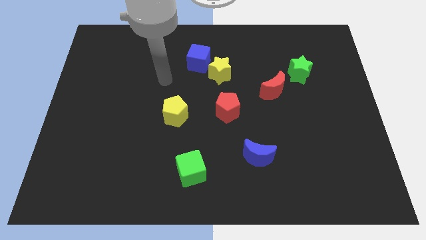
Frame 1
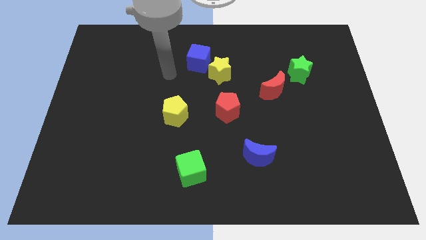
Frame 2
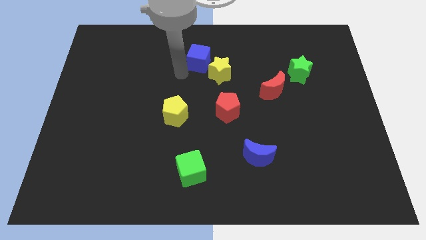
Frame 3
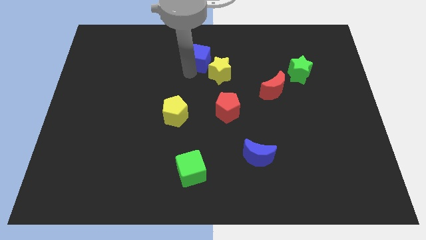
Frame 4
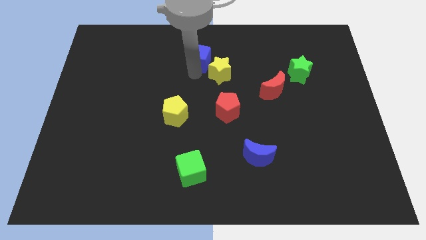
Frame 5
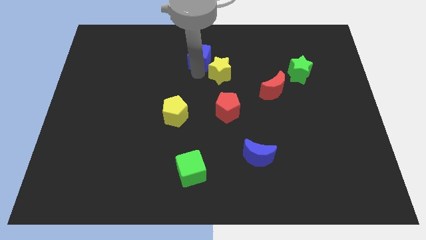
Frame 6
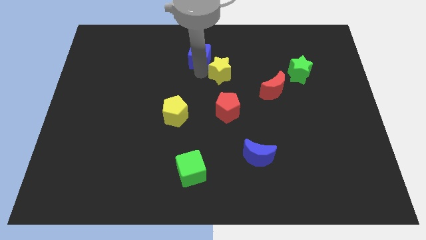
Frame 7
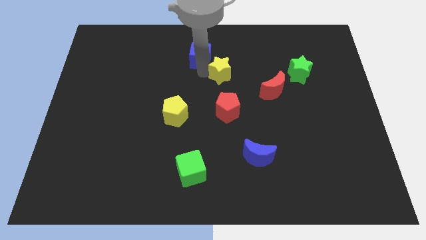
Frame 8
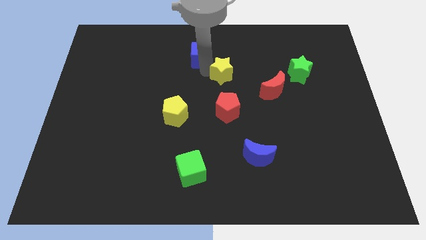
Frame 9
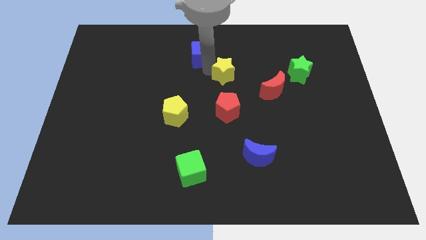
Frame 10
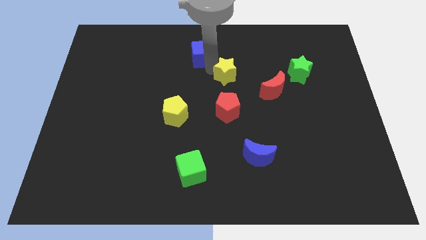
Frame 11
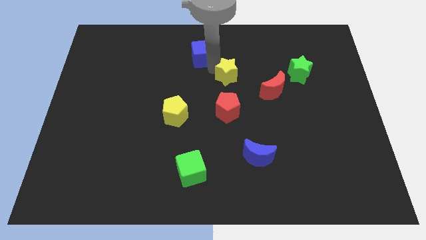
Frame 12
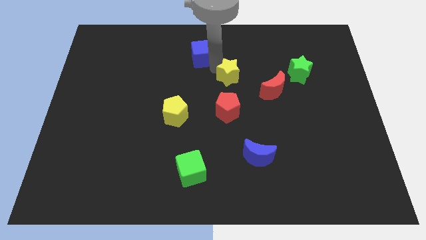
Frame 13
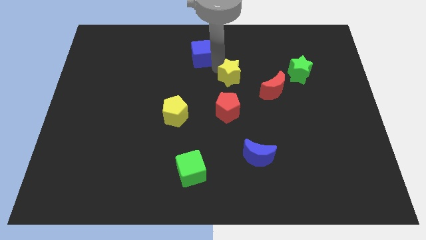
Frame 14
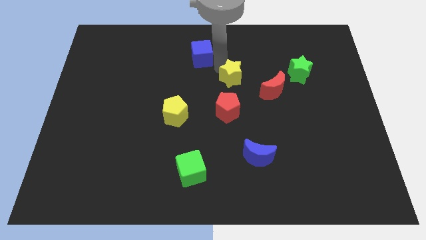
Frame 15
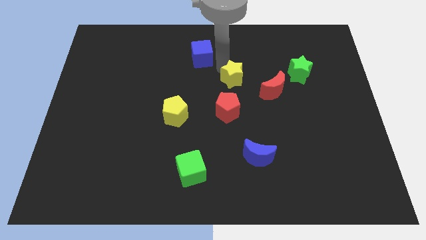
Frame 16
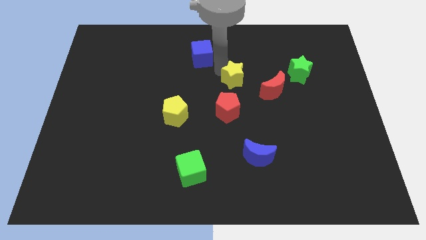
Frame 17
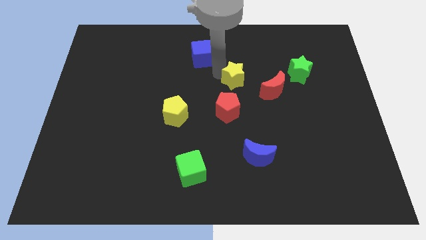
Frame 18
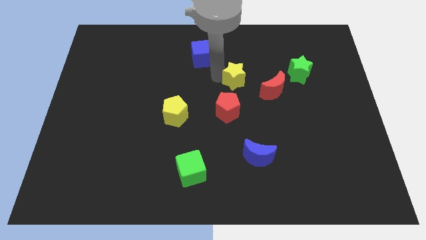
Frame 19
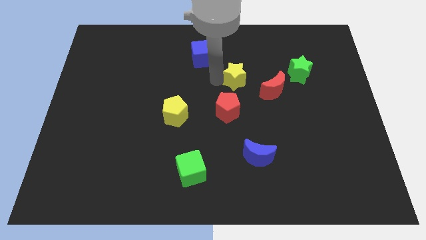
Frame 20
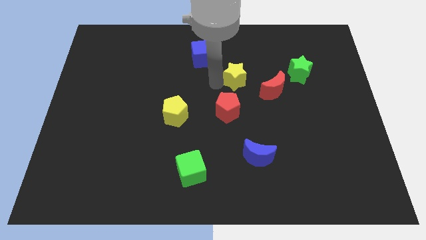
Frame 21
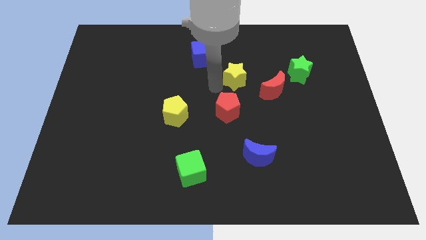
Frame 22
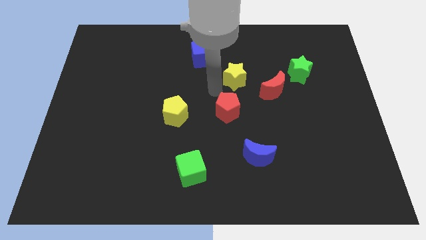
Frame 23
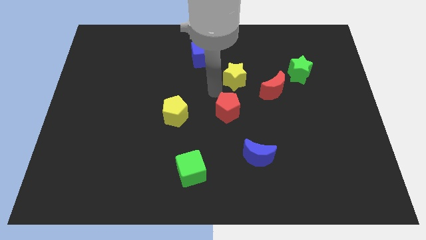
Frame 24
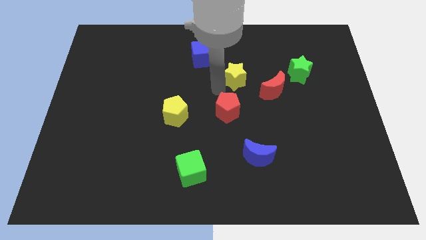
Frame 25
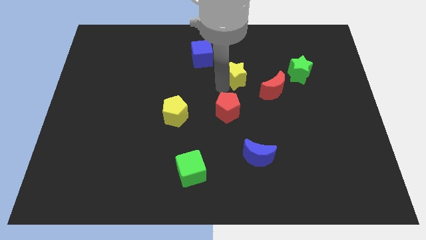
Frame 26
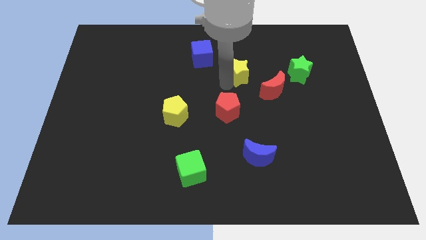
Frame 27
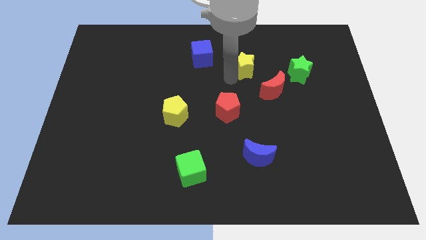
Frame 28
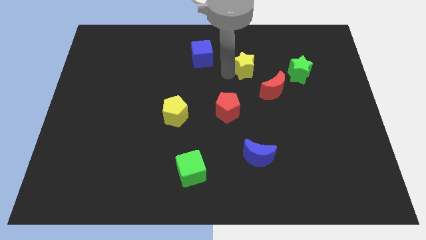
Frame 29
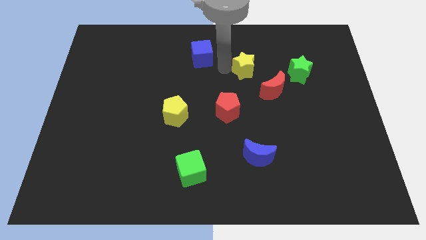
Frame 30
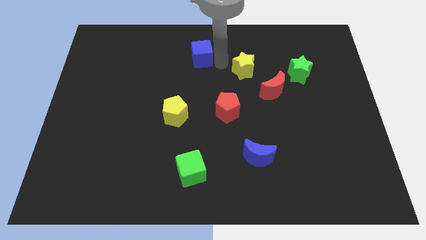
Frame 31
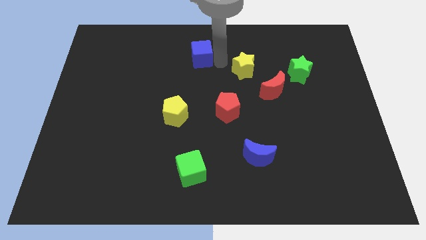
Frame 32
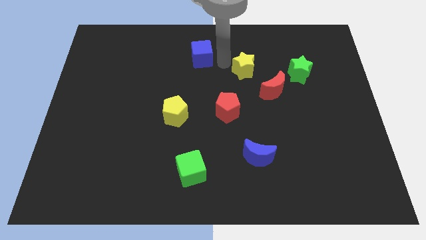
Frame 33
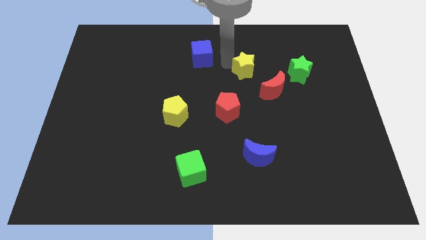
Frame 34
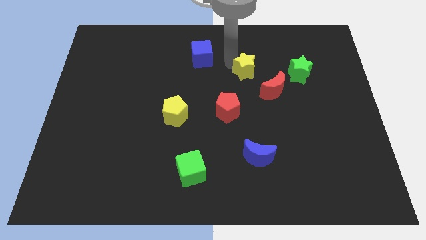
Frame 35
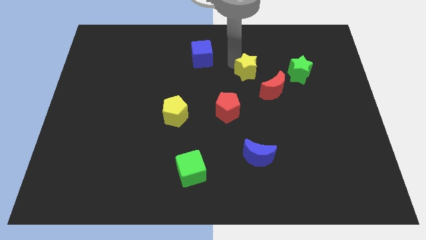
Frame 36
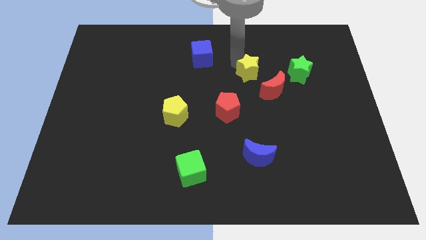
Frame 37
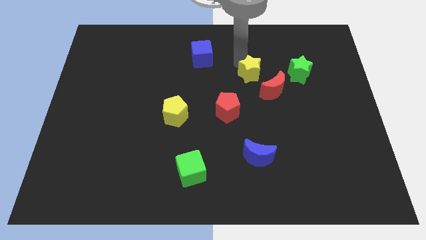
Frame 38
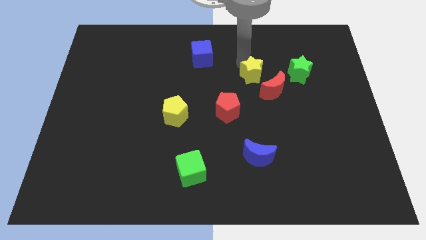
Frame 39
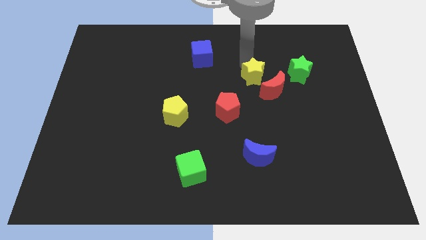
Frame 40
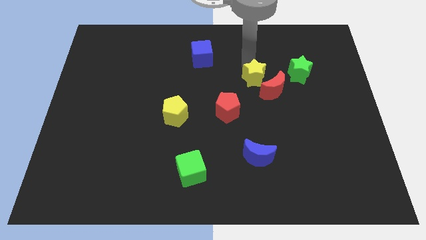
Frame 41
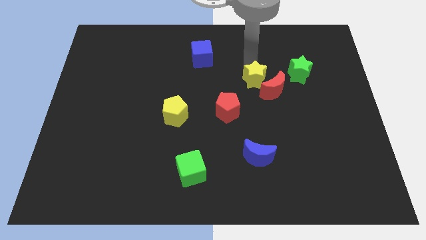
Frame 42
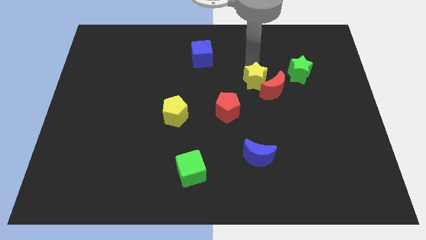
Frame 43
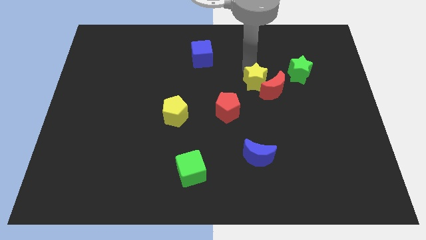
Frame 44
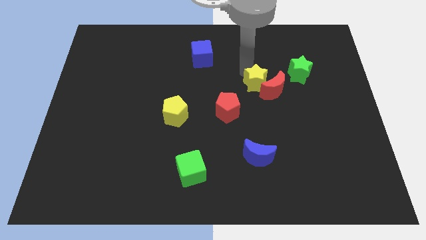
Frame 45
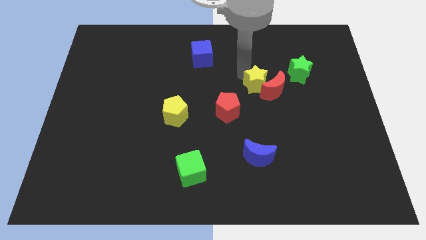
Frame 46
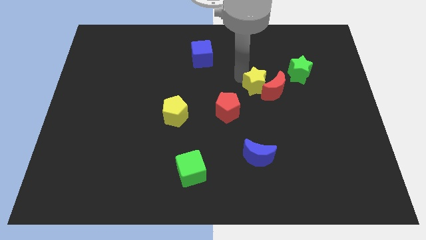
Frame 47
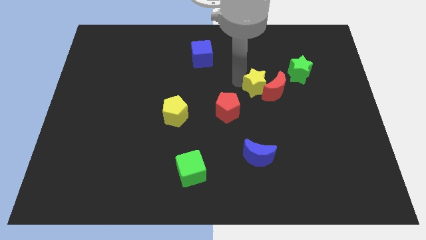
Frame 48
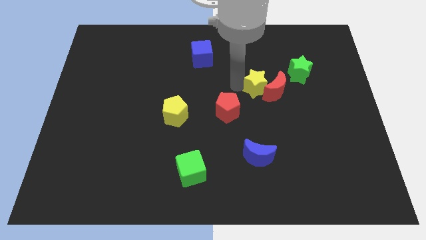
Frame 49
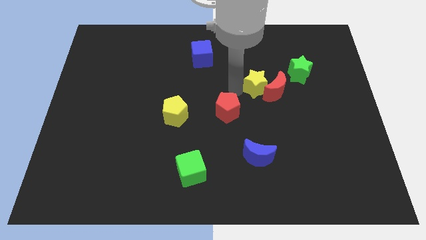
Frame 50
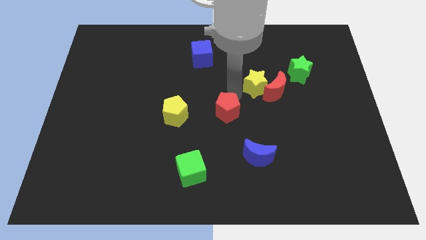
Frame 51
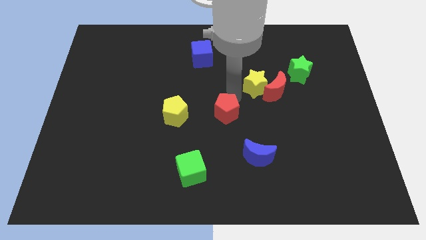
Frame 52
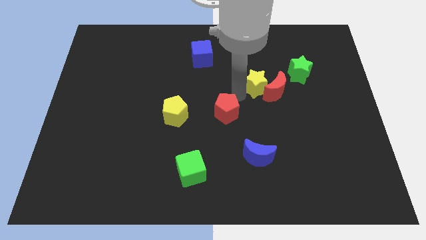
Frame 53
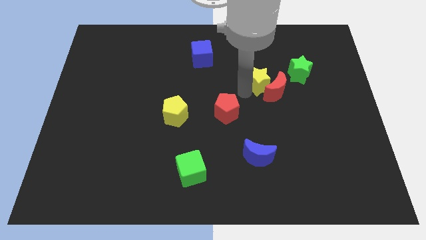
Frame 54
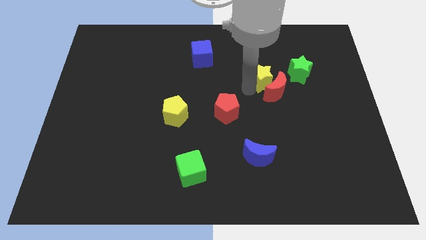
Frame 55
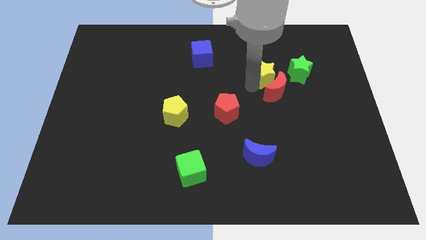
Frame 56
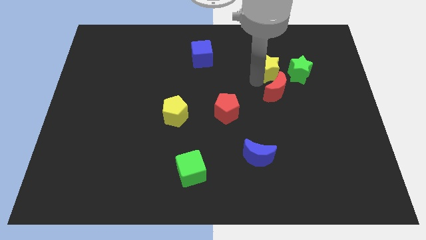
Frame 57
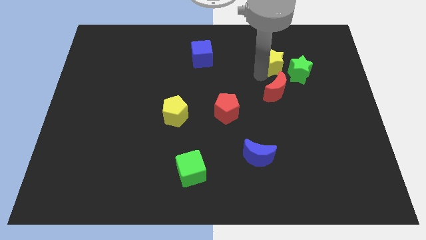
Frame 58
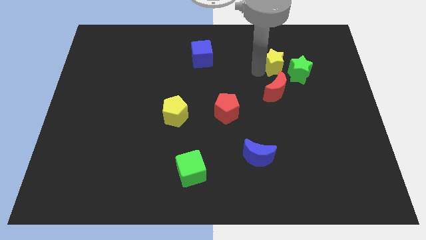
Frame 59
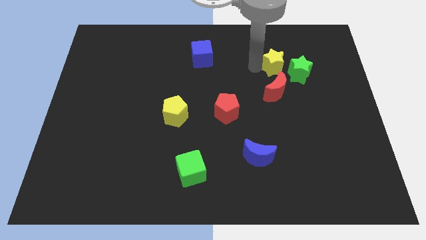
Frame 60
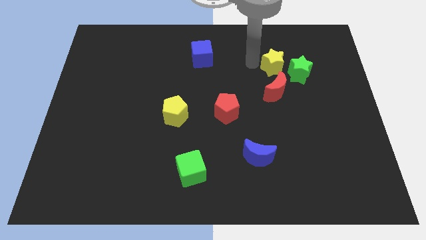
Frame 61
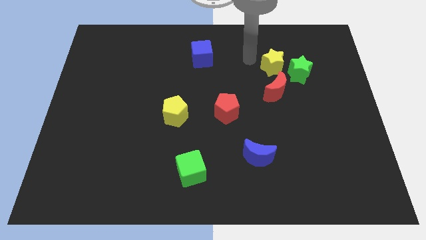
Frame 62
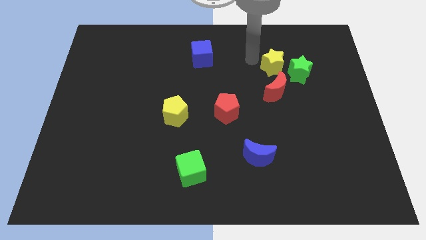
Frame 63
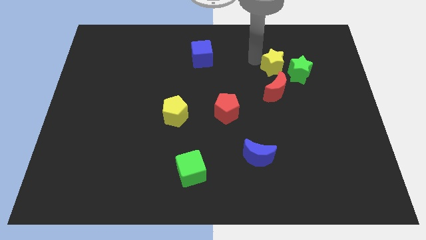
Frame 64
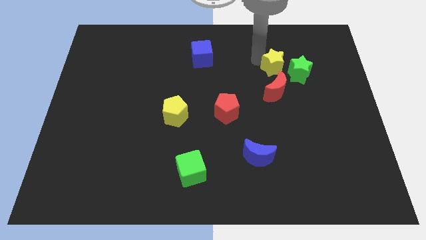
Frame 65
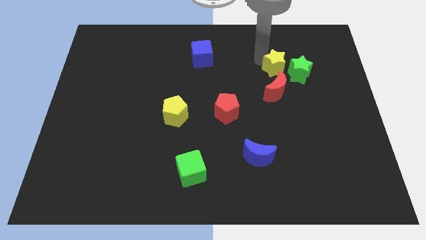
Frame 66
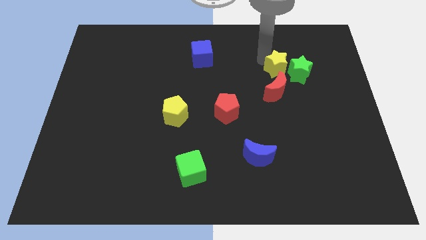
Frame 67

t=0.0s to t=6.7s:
put the yellow star towards the green star

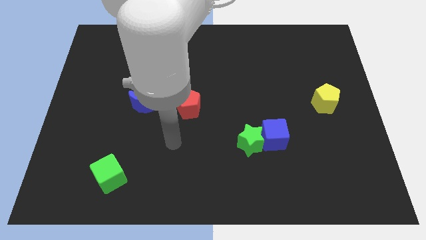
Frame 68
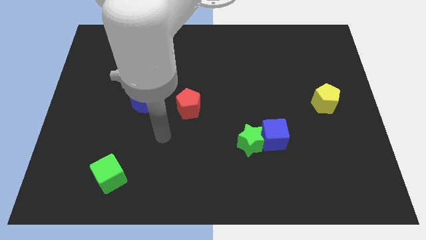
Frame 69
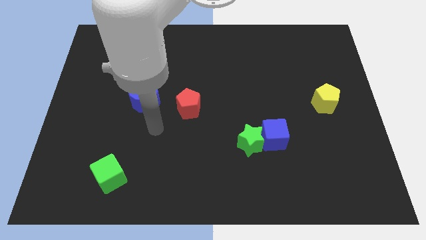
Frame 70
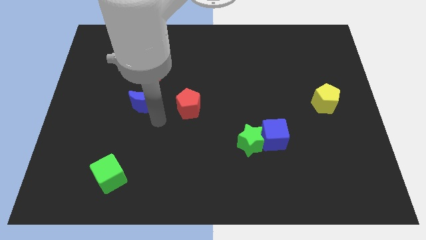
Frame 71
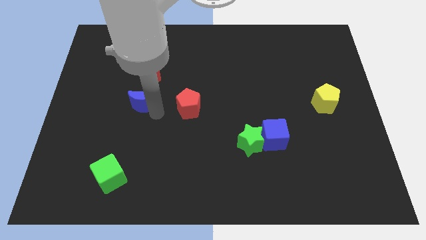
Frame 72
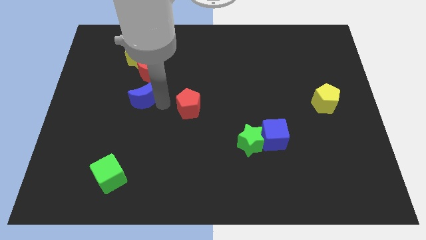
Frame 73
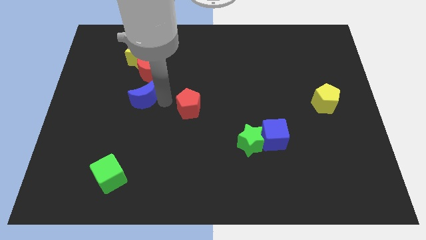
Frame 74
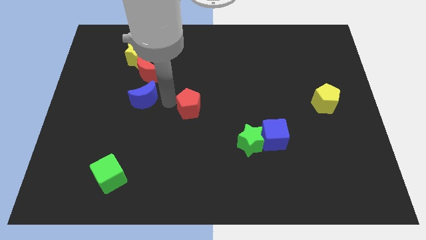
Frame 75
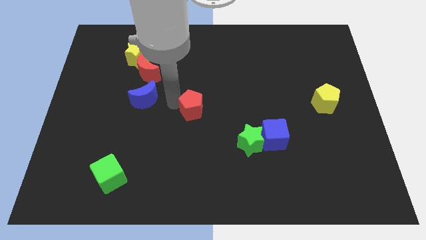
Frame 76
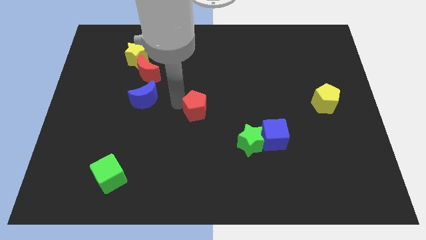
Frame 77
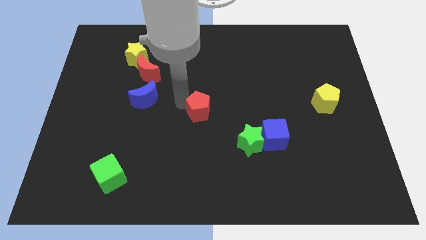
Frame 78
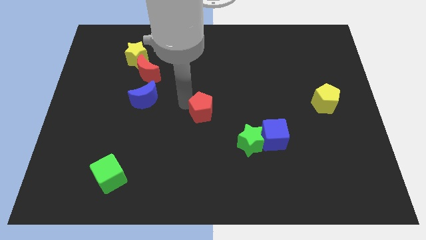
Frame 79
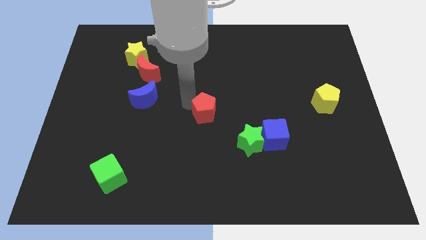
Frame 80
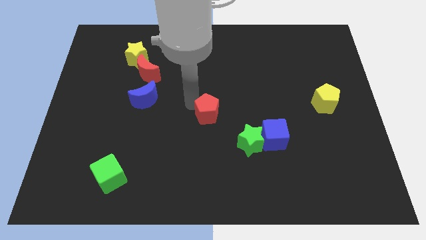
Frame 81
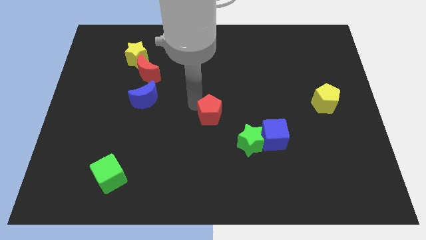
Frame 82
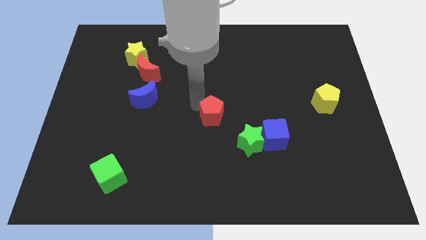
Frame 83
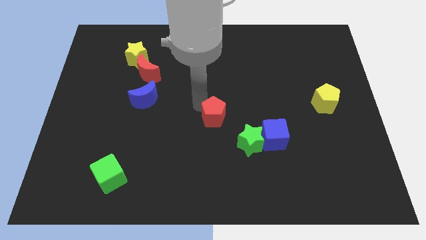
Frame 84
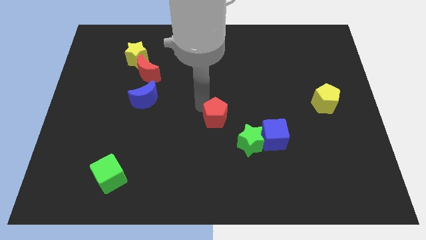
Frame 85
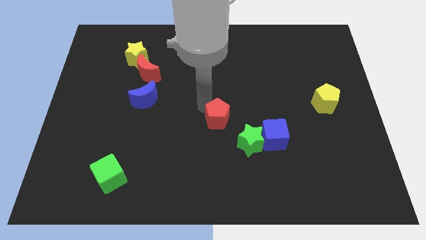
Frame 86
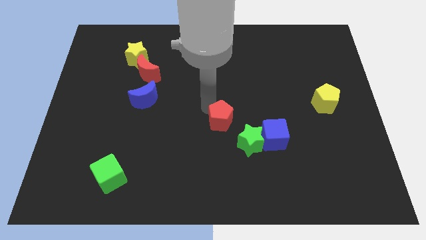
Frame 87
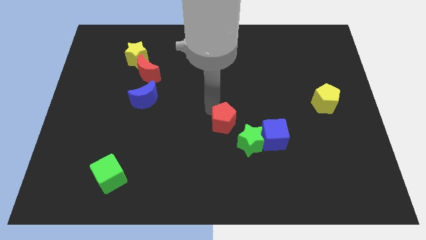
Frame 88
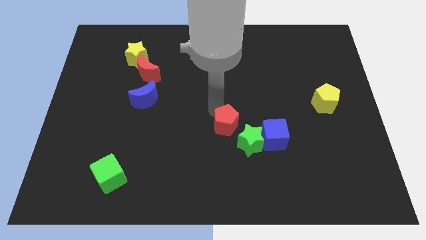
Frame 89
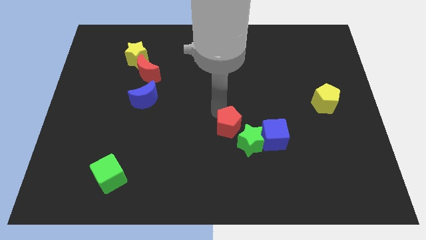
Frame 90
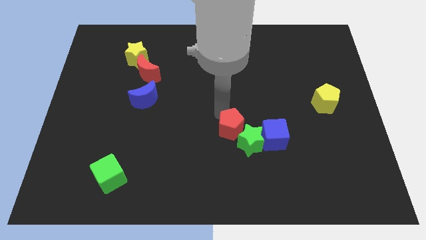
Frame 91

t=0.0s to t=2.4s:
move the red pentagon to the green star
